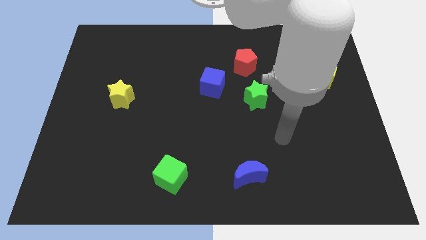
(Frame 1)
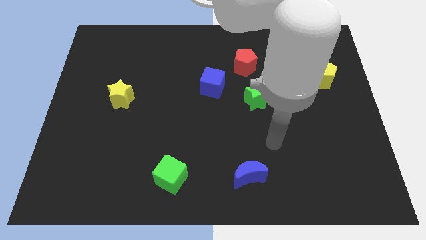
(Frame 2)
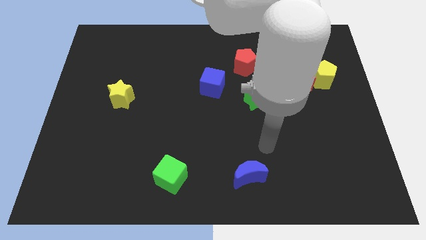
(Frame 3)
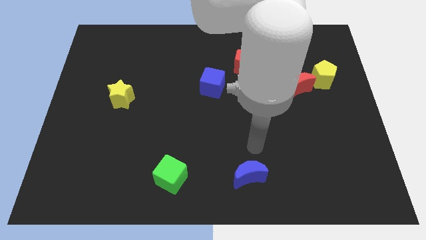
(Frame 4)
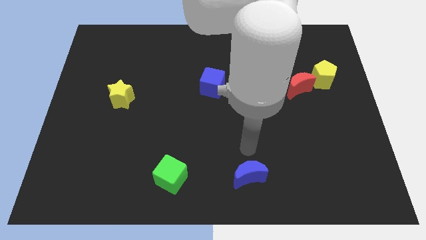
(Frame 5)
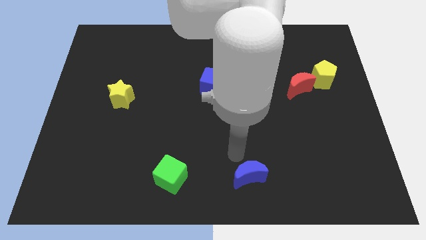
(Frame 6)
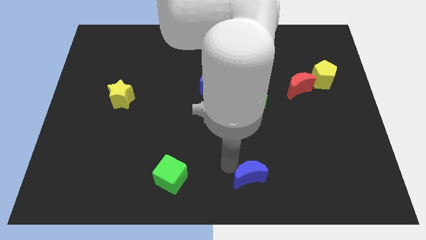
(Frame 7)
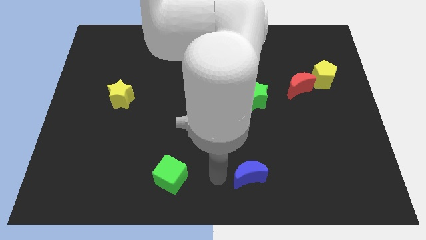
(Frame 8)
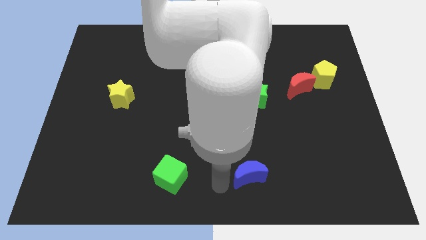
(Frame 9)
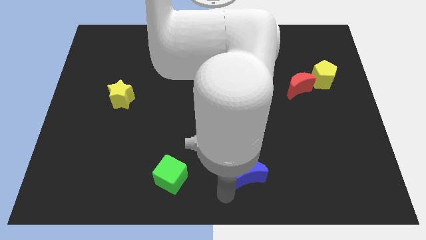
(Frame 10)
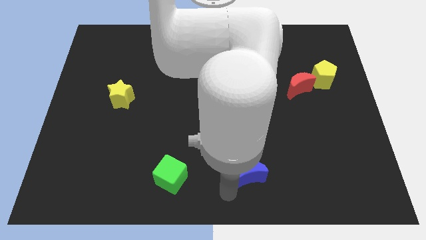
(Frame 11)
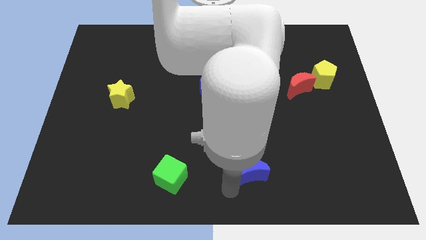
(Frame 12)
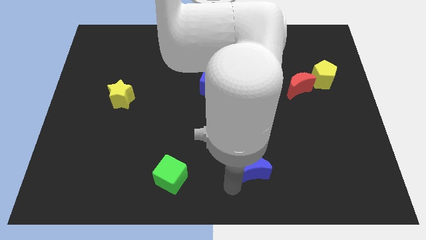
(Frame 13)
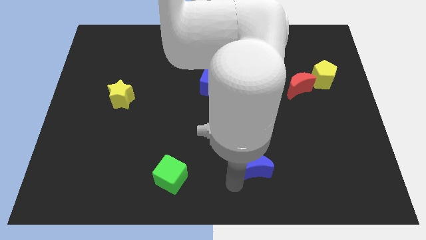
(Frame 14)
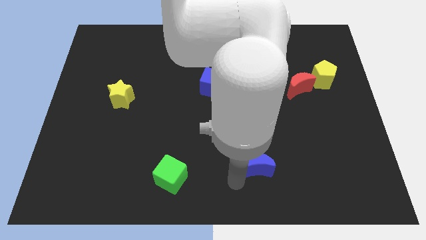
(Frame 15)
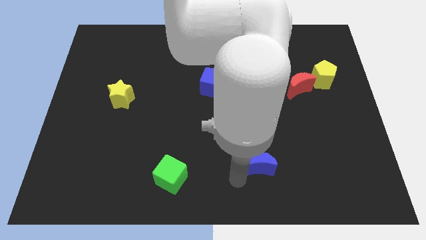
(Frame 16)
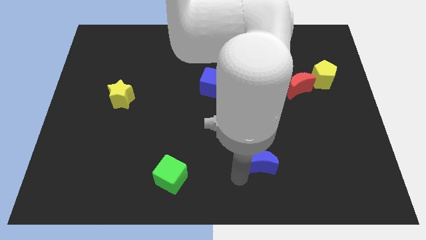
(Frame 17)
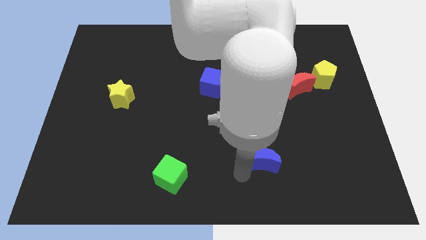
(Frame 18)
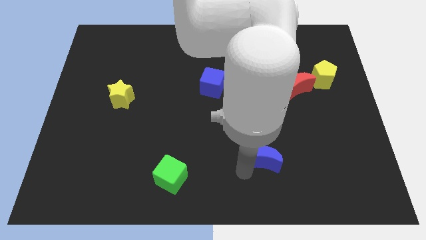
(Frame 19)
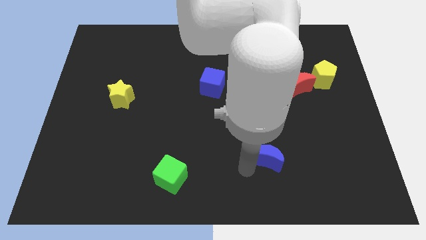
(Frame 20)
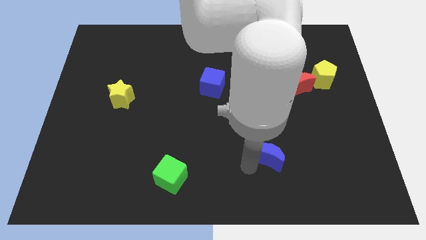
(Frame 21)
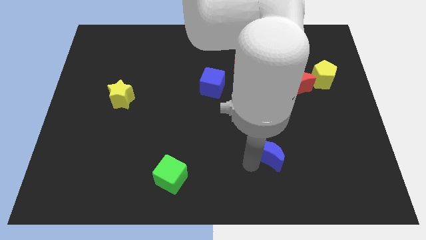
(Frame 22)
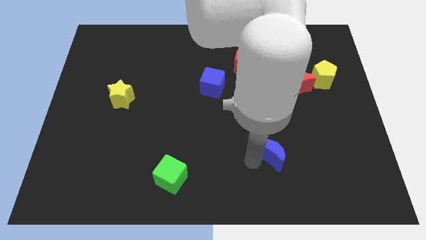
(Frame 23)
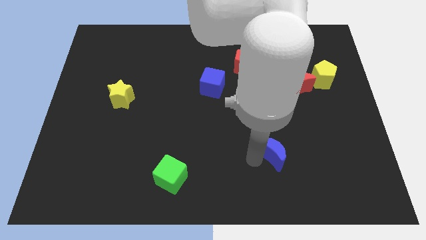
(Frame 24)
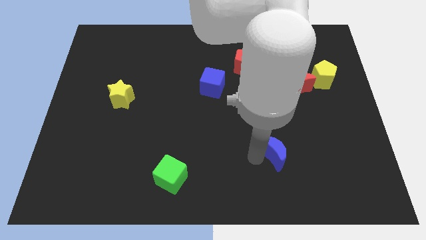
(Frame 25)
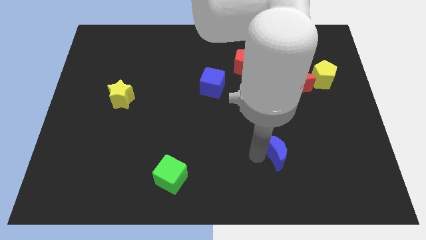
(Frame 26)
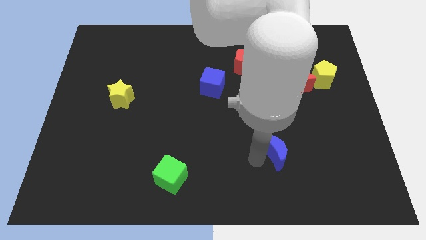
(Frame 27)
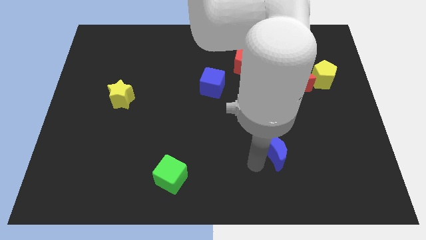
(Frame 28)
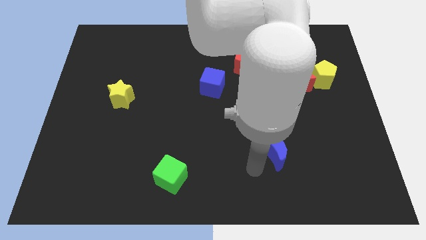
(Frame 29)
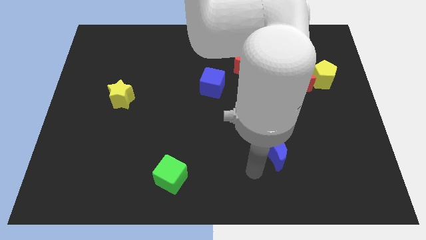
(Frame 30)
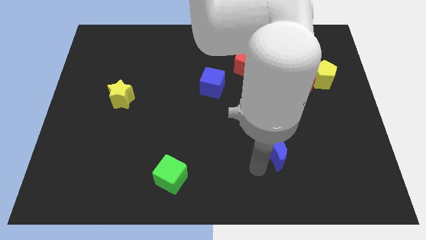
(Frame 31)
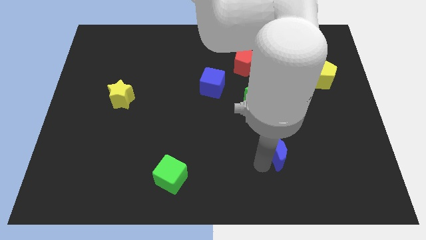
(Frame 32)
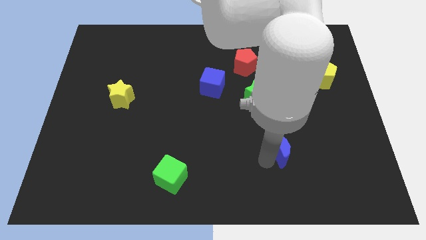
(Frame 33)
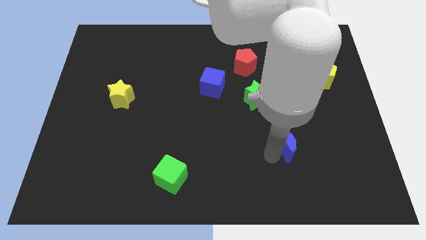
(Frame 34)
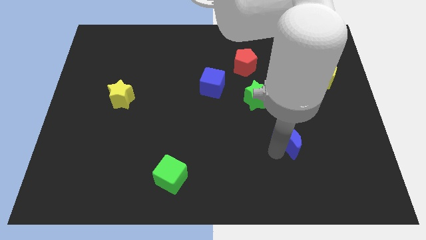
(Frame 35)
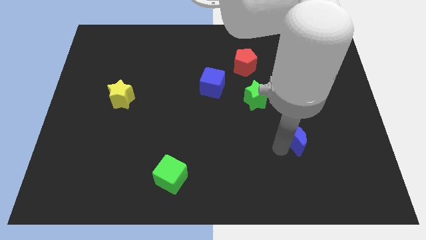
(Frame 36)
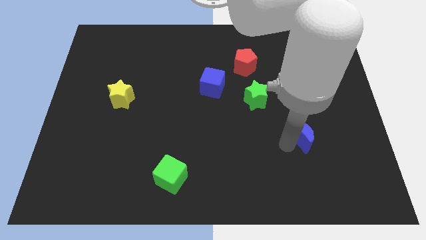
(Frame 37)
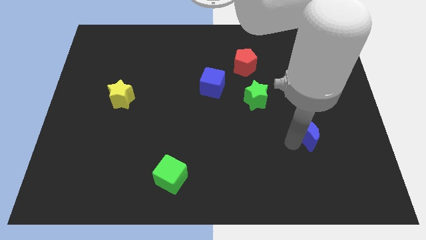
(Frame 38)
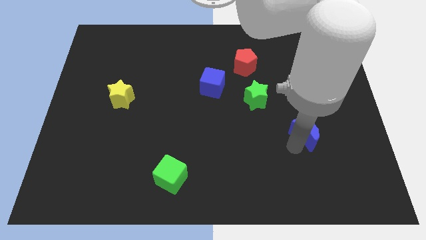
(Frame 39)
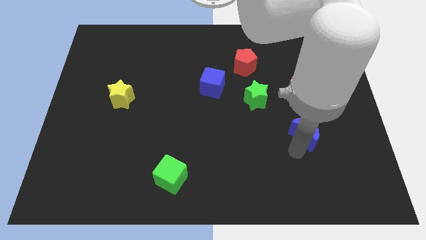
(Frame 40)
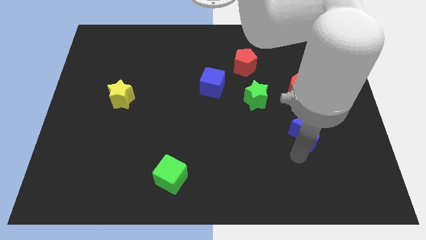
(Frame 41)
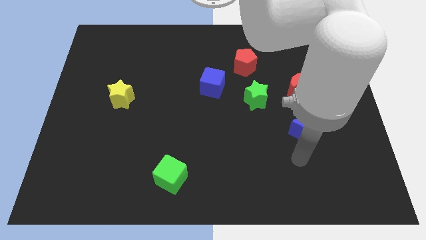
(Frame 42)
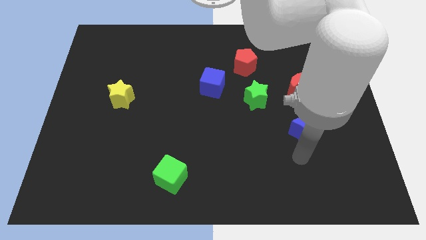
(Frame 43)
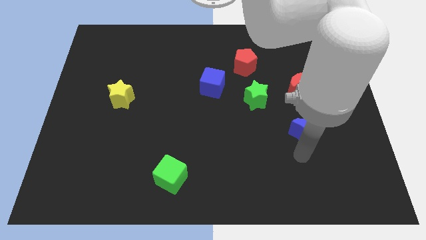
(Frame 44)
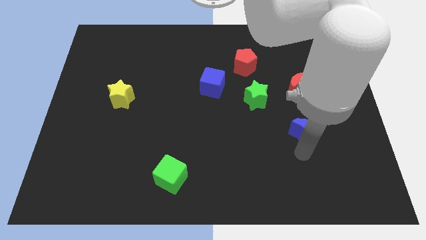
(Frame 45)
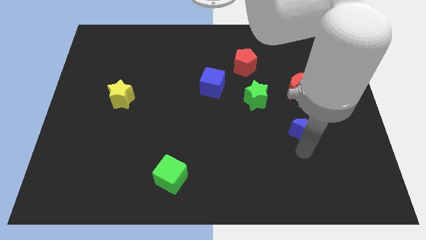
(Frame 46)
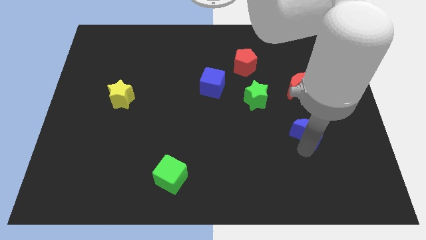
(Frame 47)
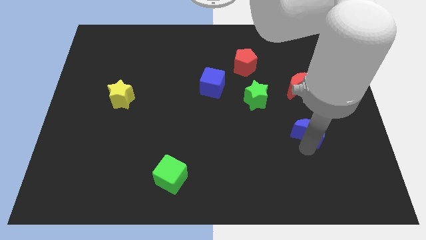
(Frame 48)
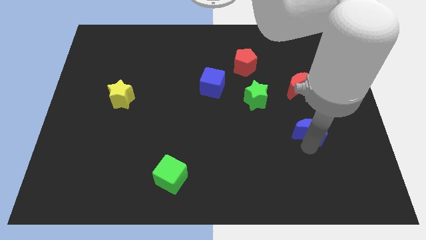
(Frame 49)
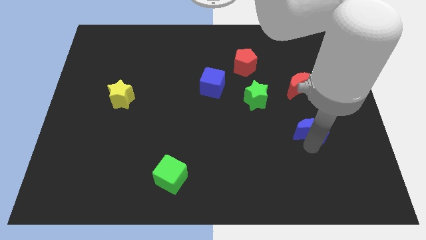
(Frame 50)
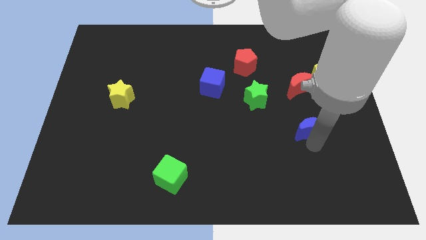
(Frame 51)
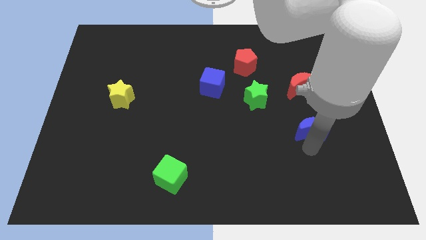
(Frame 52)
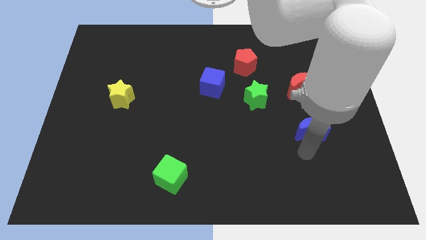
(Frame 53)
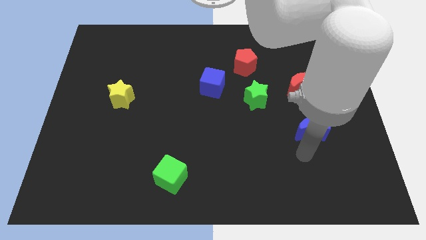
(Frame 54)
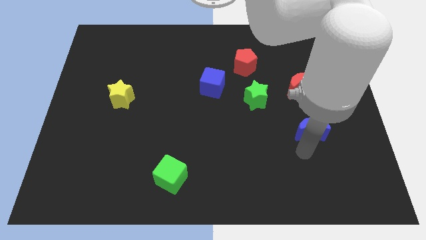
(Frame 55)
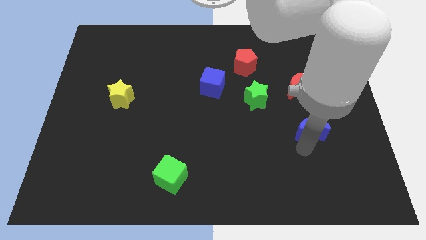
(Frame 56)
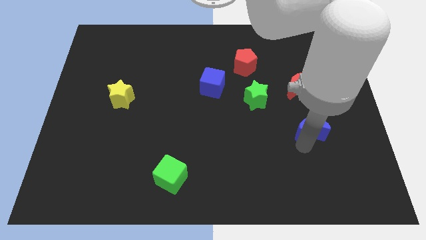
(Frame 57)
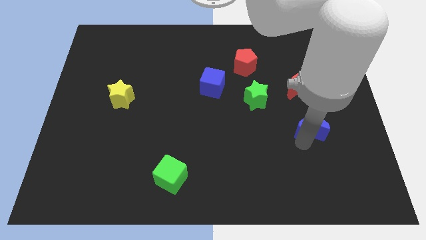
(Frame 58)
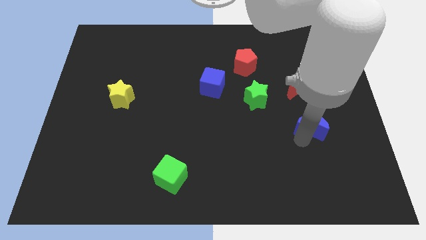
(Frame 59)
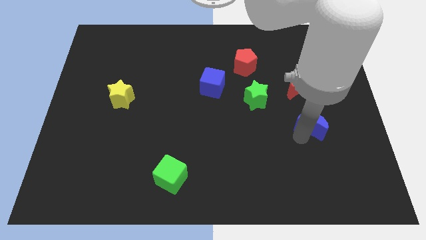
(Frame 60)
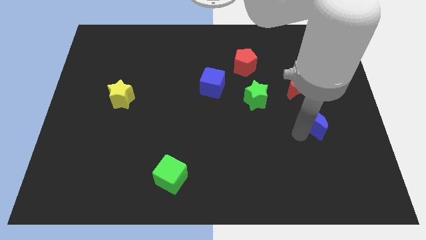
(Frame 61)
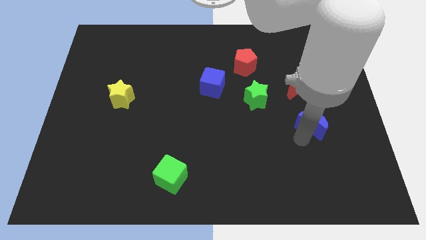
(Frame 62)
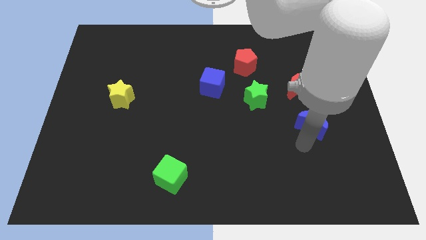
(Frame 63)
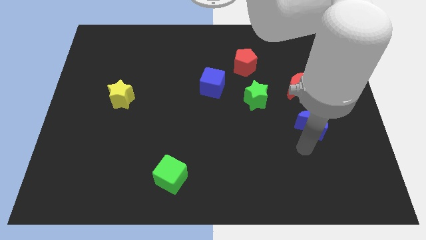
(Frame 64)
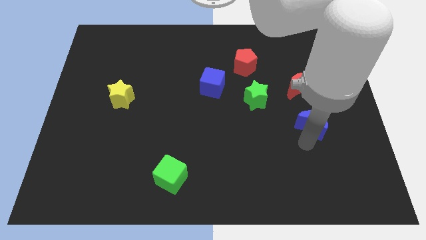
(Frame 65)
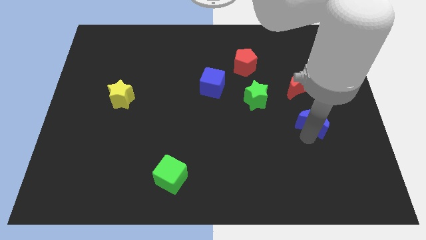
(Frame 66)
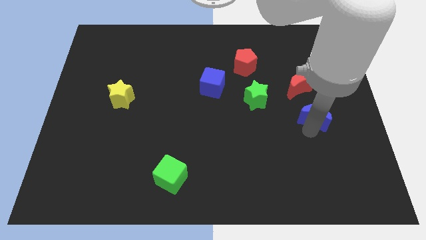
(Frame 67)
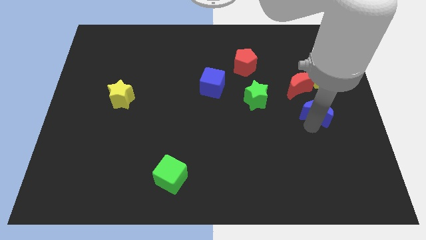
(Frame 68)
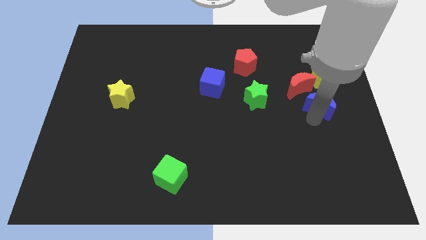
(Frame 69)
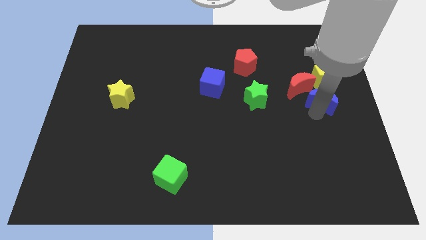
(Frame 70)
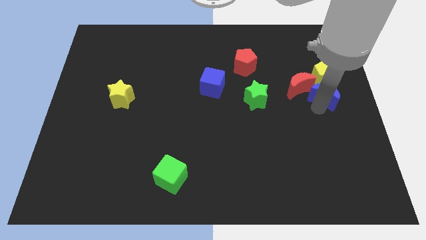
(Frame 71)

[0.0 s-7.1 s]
move the blue moon close to the yellow pentagon

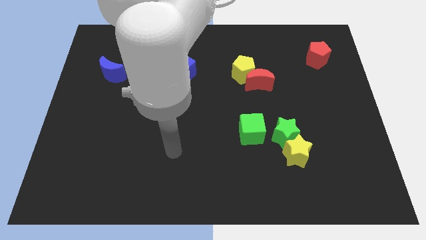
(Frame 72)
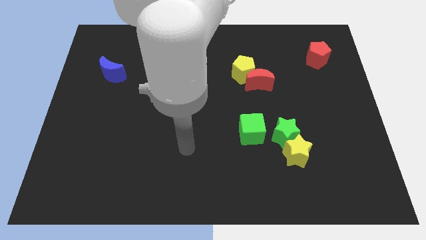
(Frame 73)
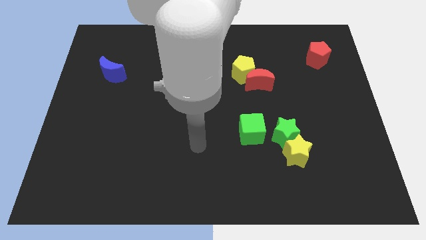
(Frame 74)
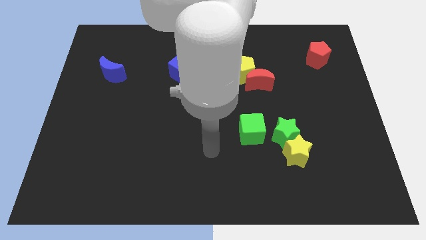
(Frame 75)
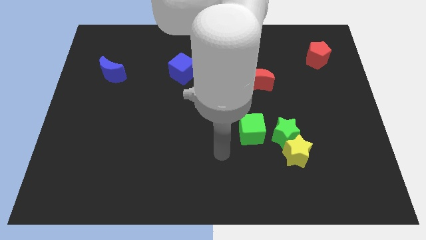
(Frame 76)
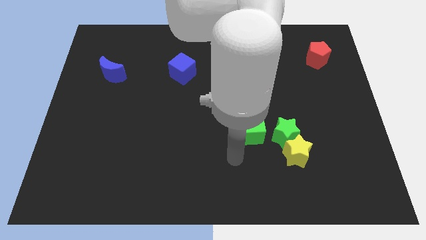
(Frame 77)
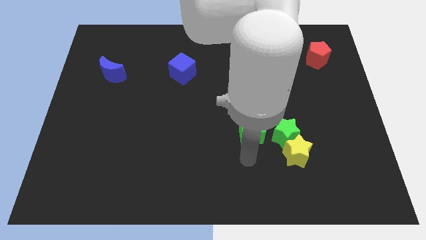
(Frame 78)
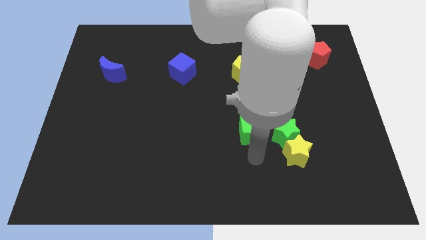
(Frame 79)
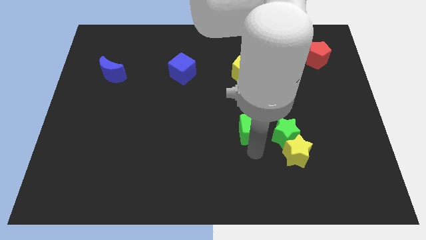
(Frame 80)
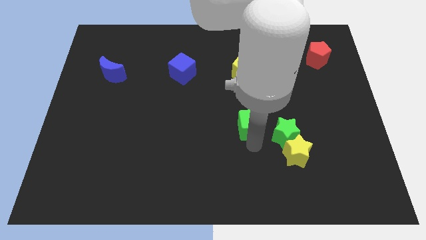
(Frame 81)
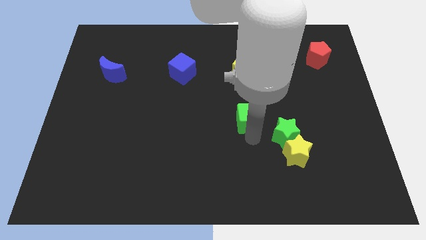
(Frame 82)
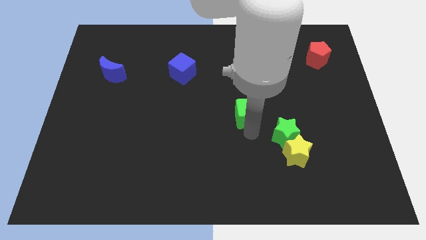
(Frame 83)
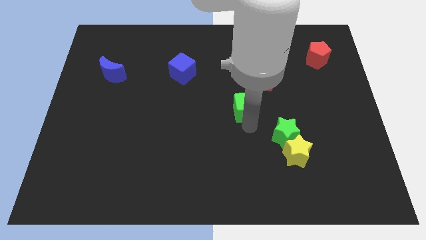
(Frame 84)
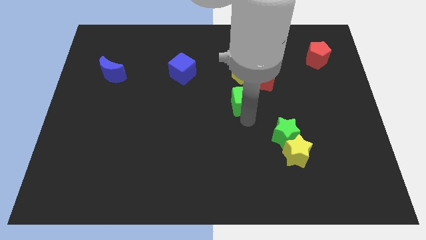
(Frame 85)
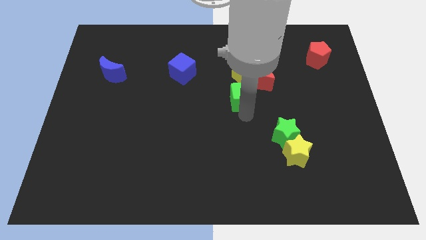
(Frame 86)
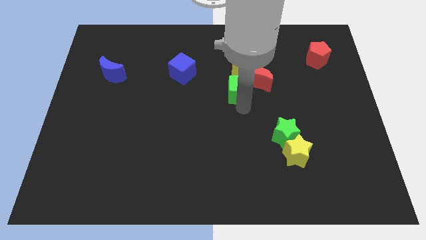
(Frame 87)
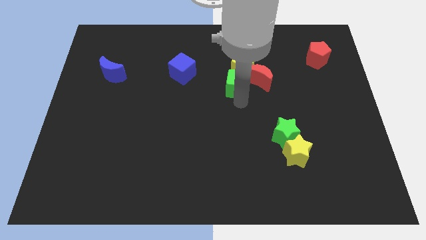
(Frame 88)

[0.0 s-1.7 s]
move the green cube to the yellow pentagon
